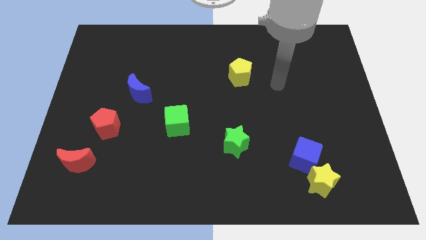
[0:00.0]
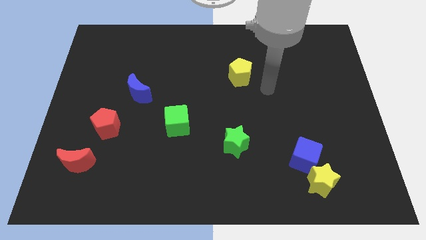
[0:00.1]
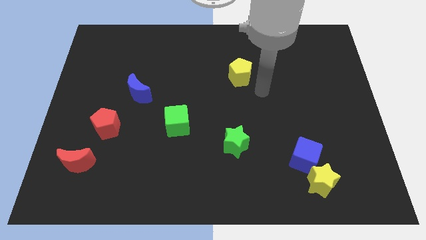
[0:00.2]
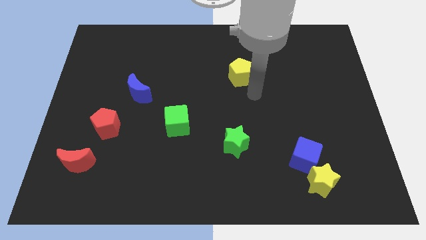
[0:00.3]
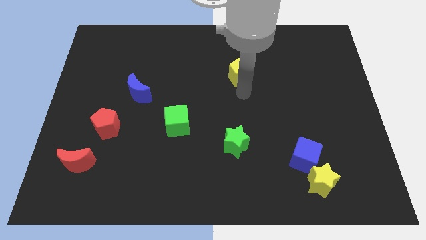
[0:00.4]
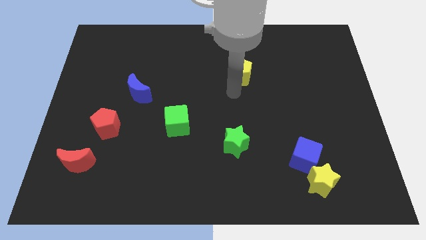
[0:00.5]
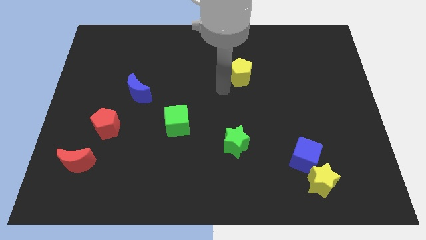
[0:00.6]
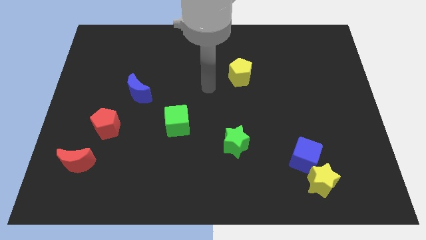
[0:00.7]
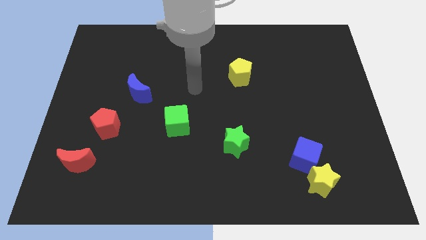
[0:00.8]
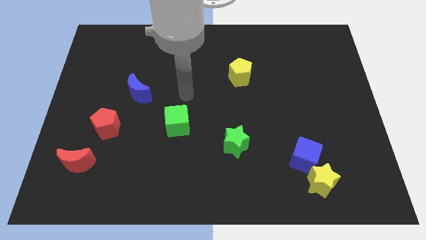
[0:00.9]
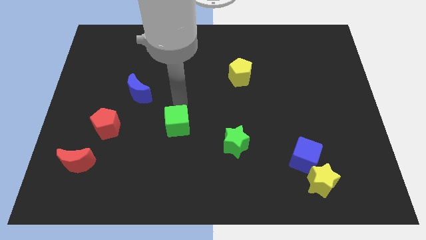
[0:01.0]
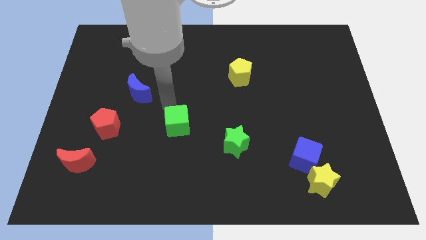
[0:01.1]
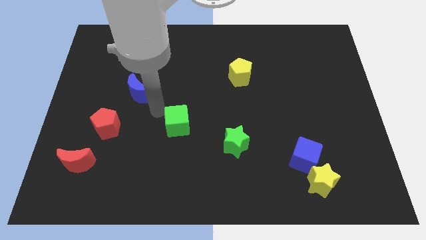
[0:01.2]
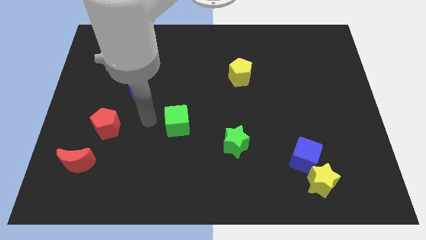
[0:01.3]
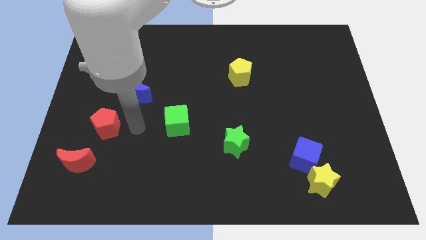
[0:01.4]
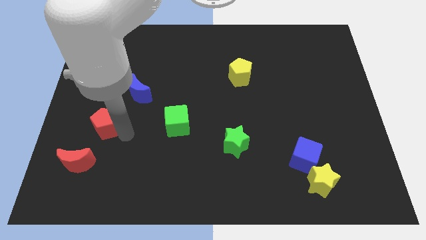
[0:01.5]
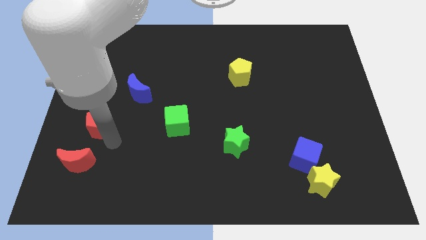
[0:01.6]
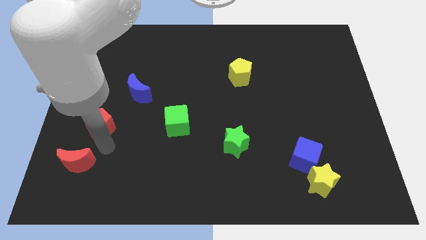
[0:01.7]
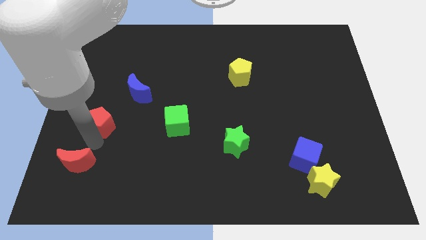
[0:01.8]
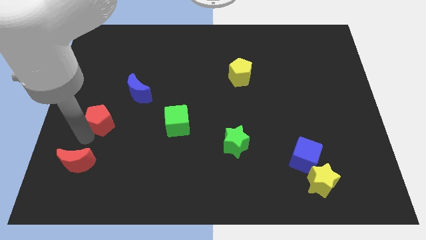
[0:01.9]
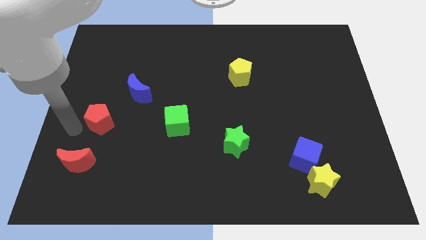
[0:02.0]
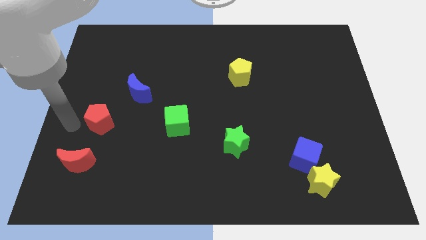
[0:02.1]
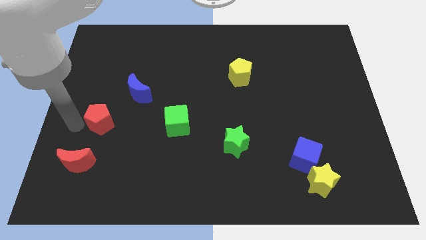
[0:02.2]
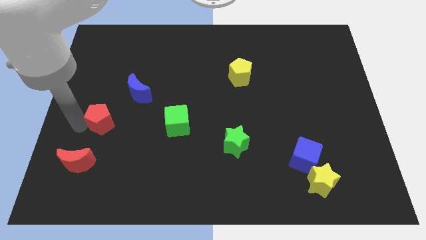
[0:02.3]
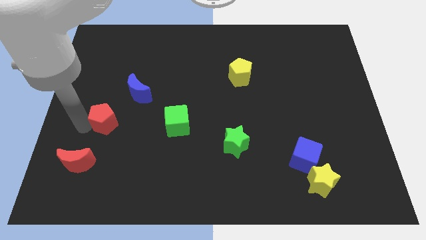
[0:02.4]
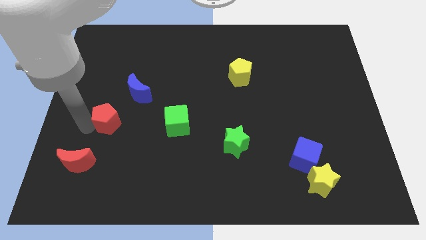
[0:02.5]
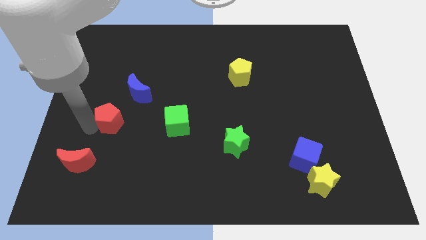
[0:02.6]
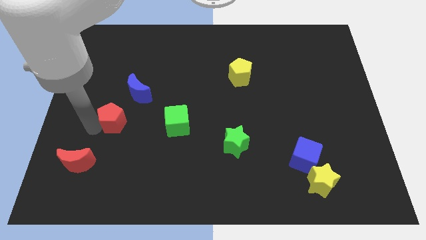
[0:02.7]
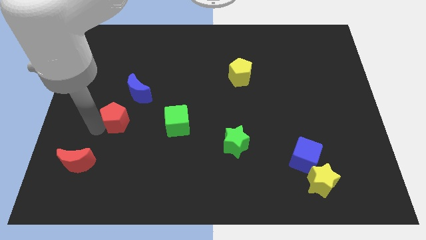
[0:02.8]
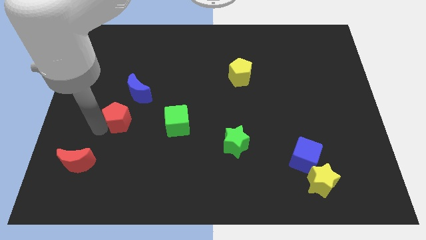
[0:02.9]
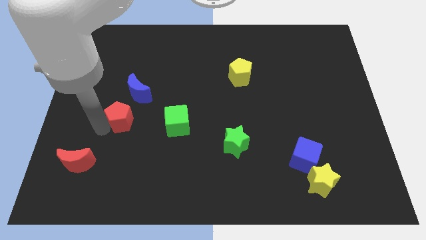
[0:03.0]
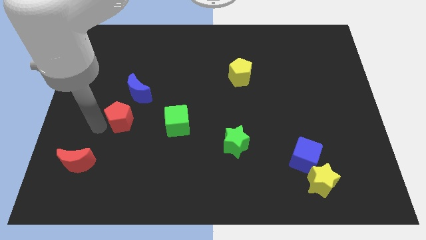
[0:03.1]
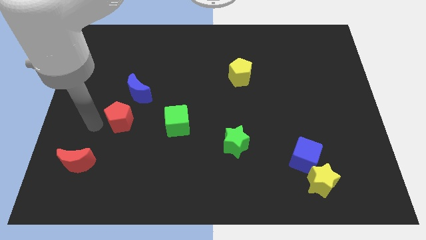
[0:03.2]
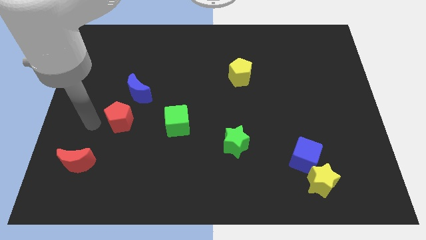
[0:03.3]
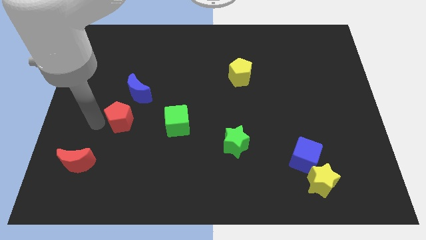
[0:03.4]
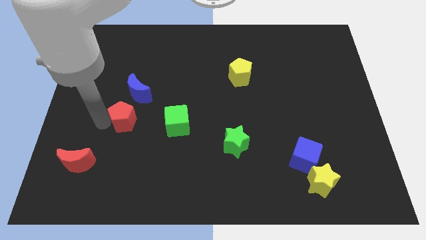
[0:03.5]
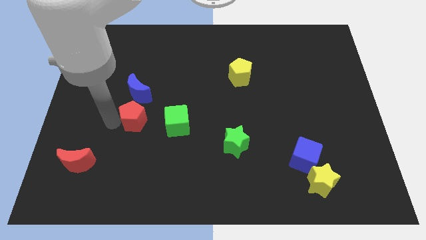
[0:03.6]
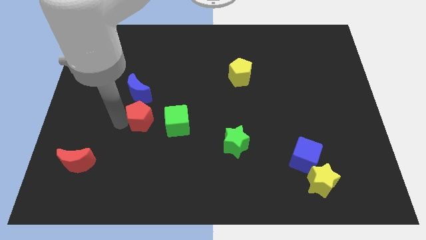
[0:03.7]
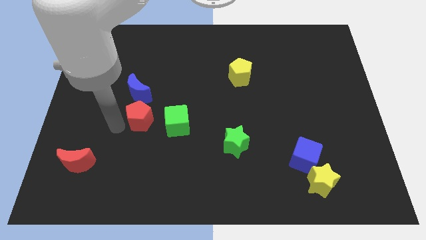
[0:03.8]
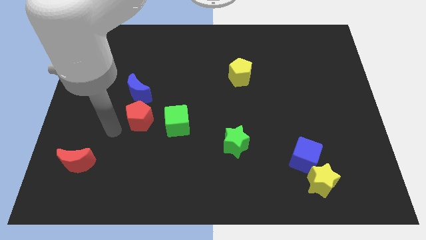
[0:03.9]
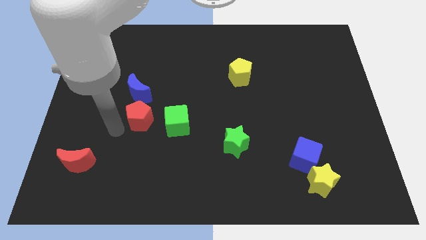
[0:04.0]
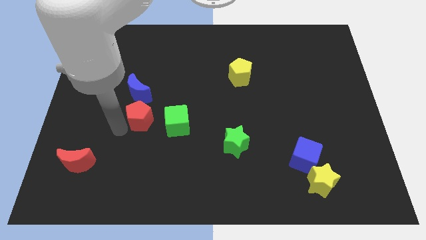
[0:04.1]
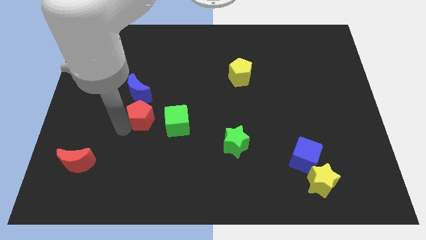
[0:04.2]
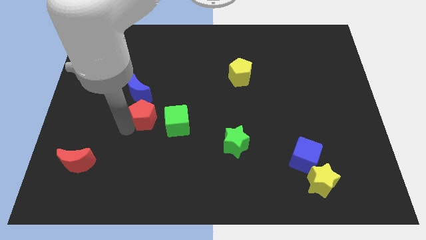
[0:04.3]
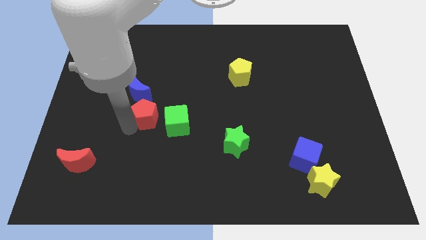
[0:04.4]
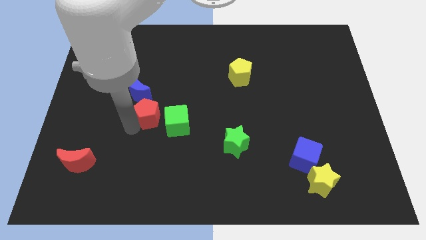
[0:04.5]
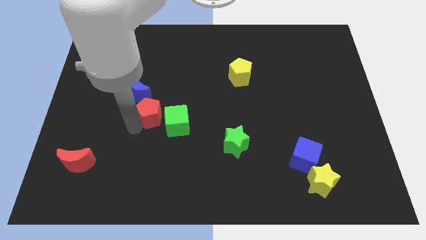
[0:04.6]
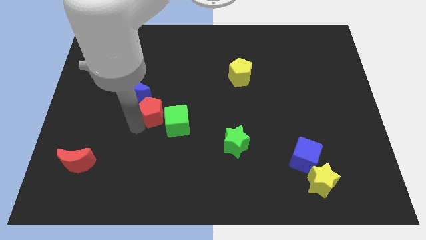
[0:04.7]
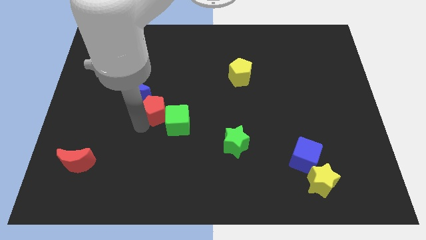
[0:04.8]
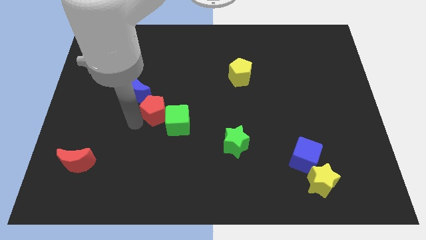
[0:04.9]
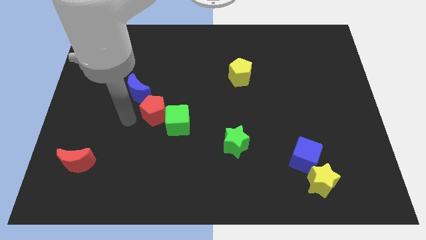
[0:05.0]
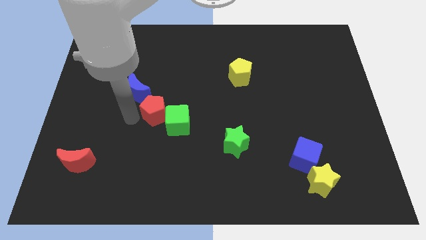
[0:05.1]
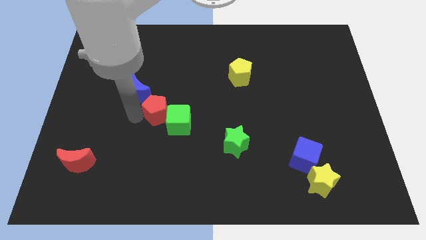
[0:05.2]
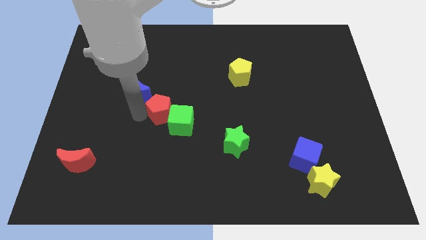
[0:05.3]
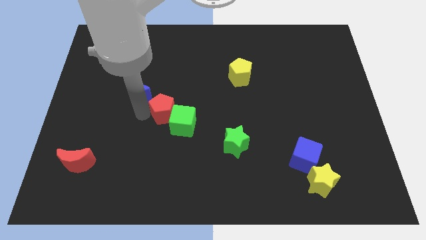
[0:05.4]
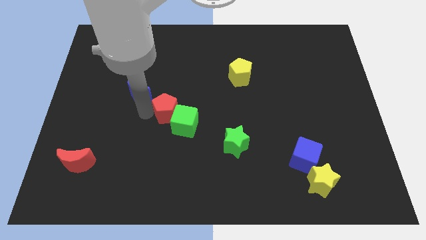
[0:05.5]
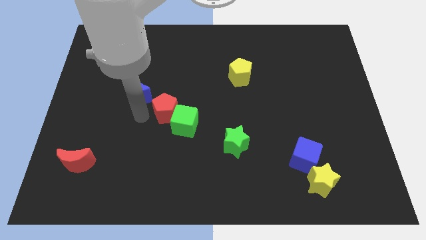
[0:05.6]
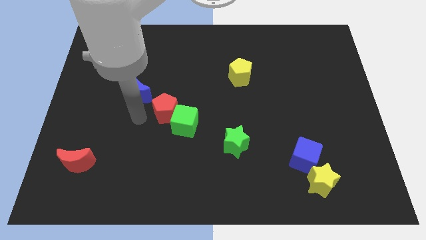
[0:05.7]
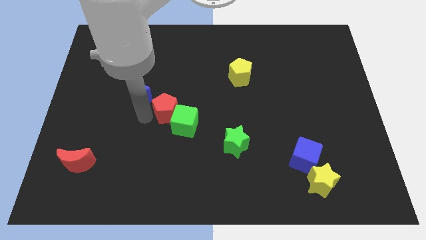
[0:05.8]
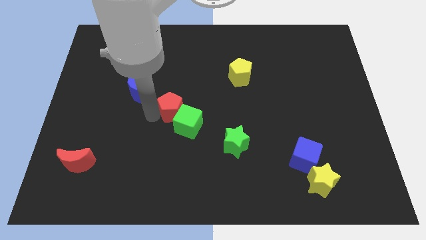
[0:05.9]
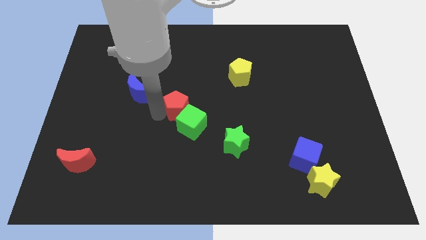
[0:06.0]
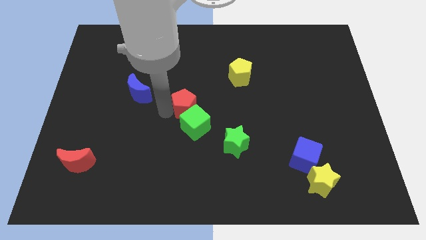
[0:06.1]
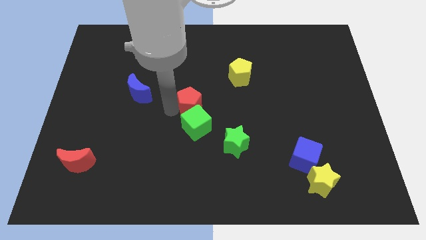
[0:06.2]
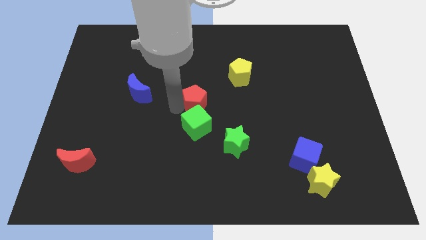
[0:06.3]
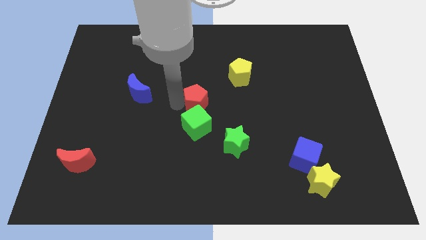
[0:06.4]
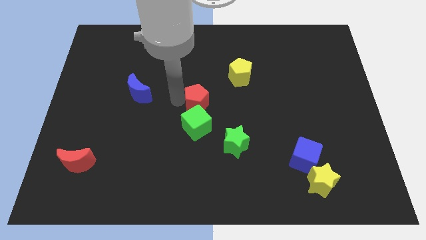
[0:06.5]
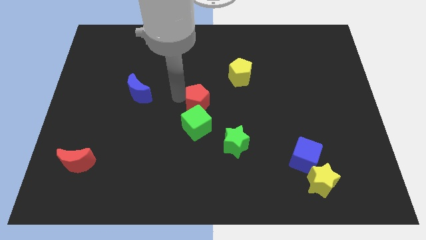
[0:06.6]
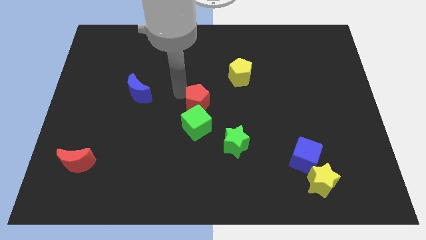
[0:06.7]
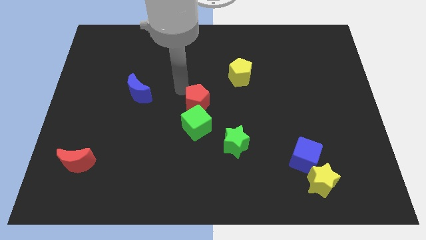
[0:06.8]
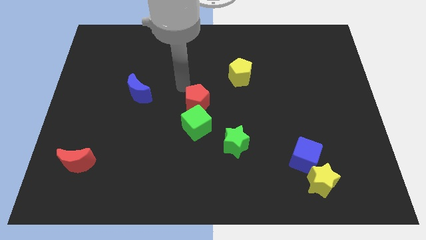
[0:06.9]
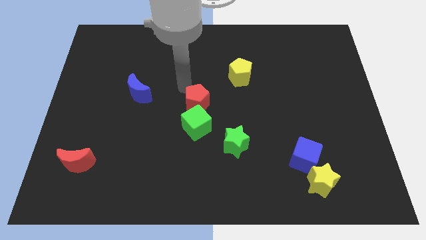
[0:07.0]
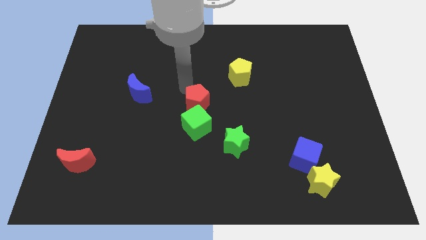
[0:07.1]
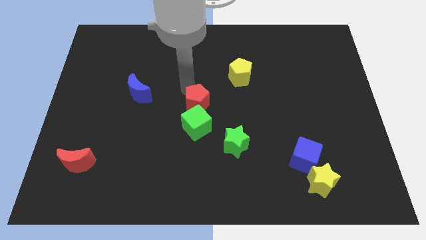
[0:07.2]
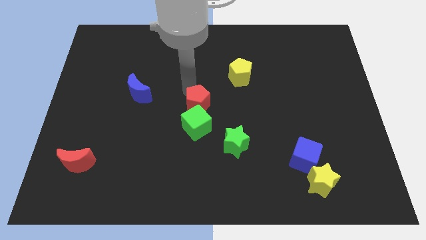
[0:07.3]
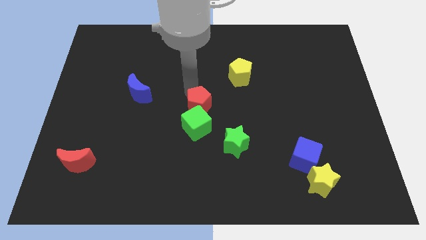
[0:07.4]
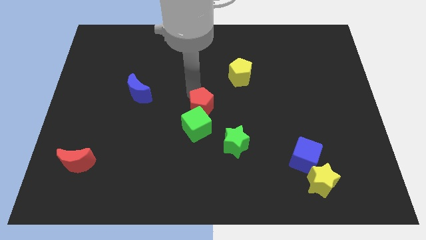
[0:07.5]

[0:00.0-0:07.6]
slide the red pentagon to the right

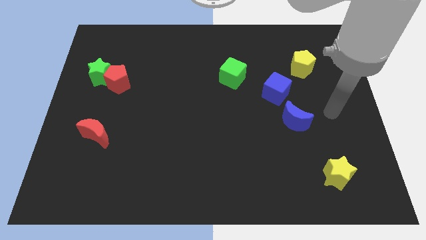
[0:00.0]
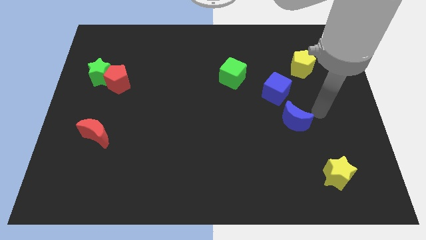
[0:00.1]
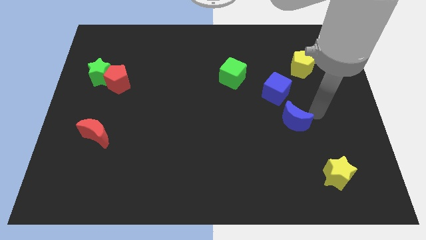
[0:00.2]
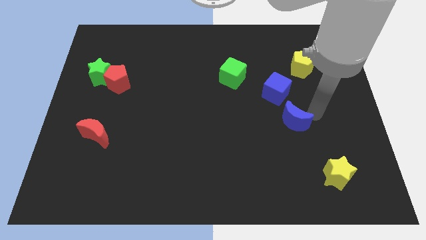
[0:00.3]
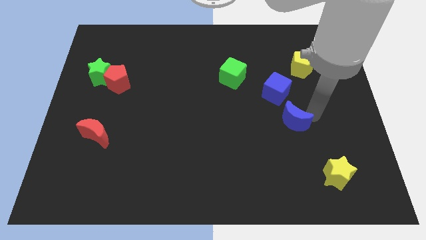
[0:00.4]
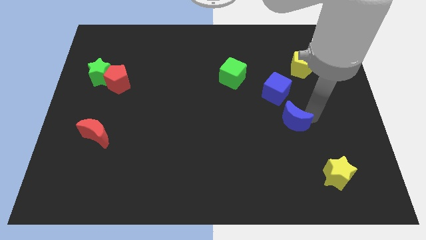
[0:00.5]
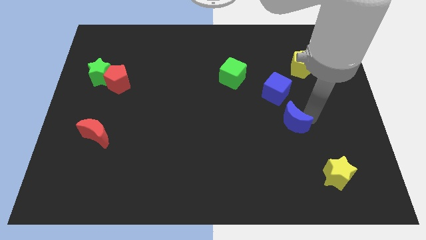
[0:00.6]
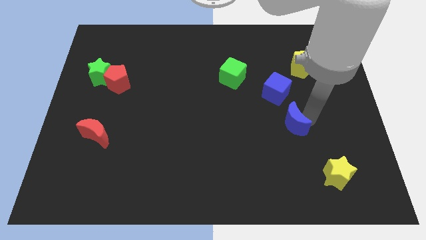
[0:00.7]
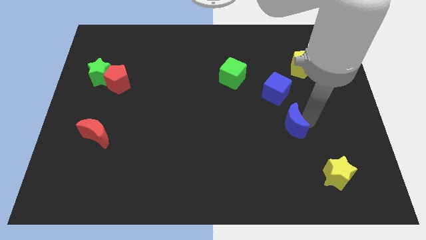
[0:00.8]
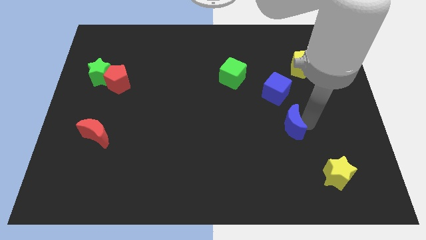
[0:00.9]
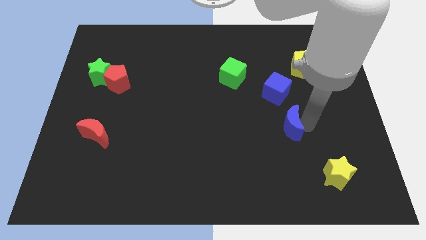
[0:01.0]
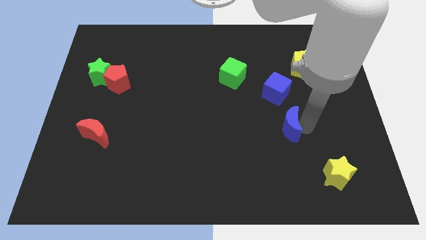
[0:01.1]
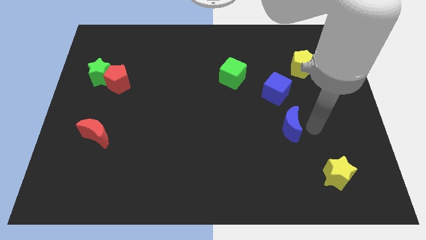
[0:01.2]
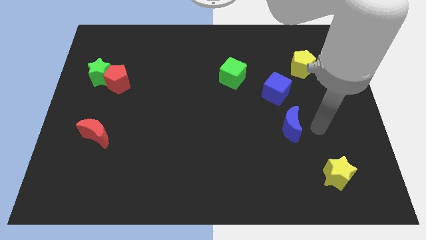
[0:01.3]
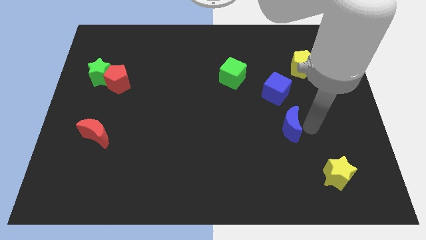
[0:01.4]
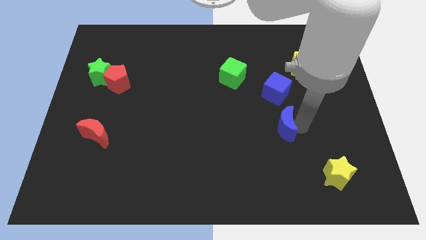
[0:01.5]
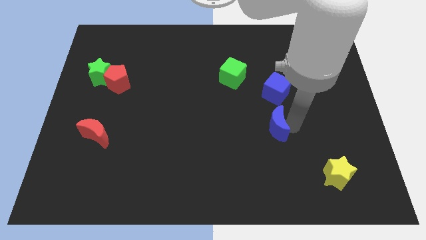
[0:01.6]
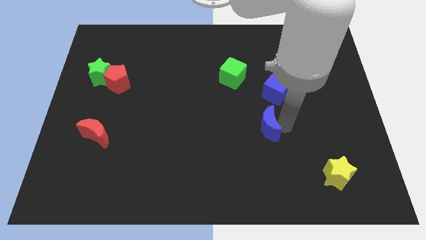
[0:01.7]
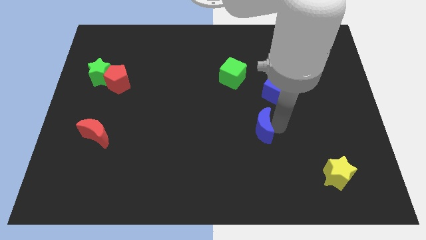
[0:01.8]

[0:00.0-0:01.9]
push the blue moon somewhat to the left
